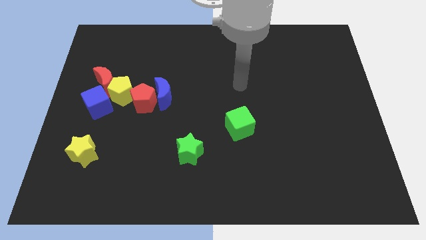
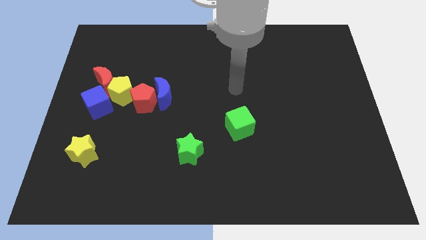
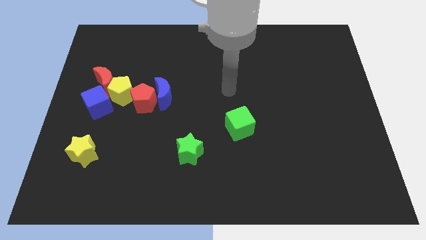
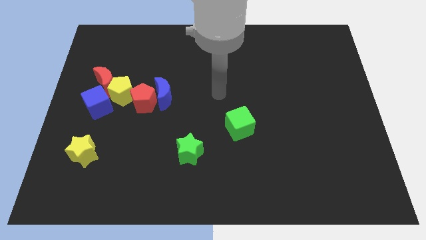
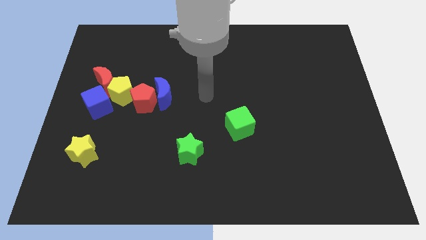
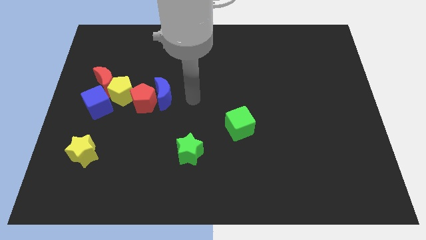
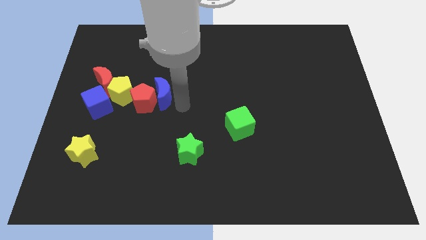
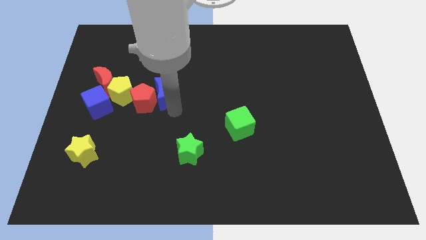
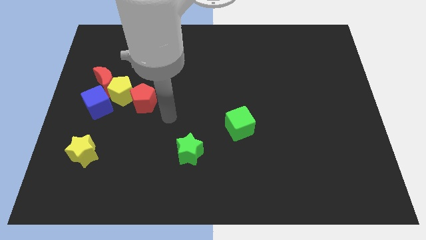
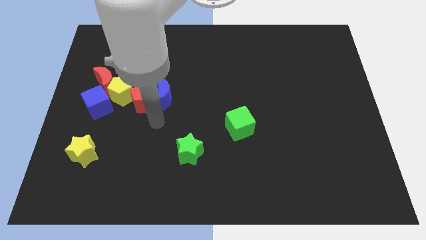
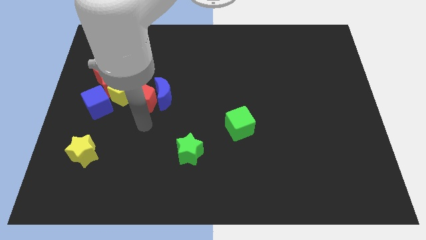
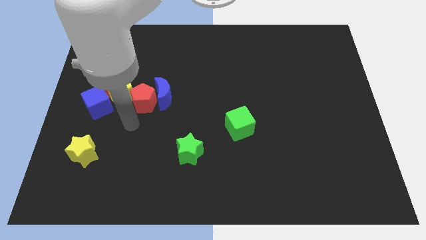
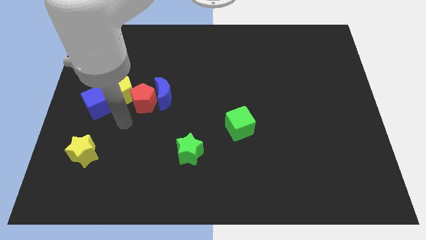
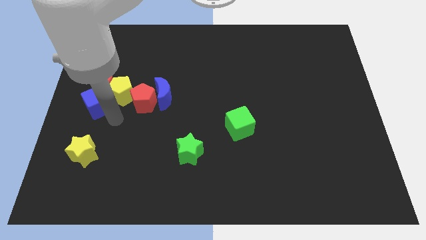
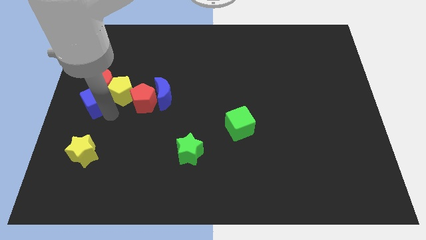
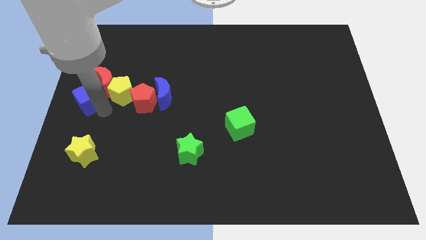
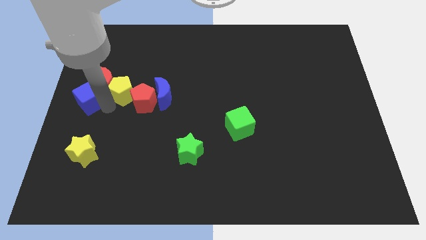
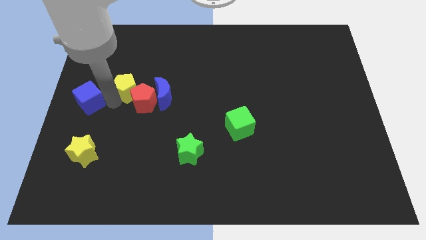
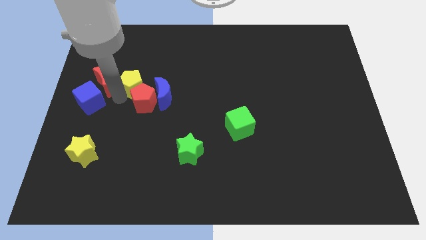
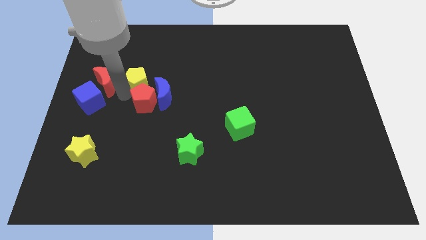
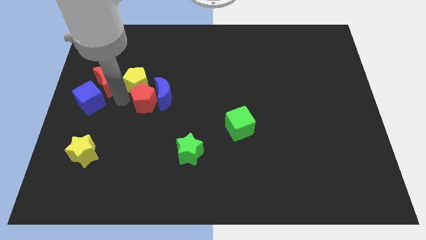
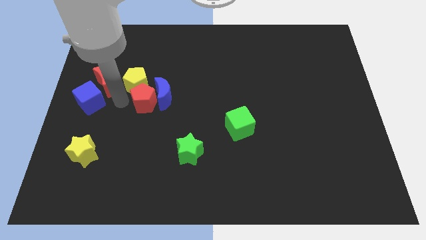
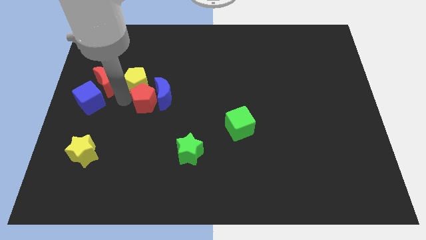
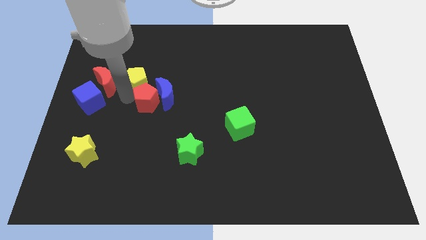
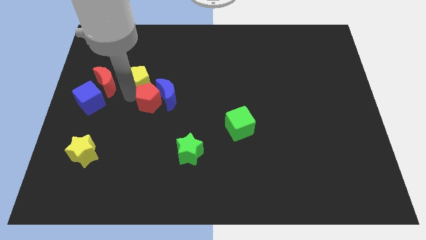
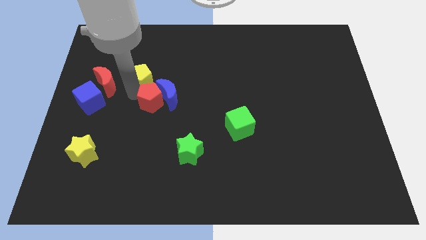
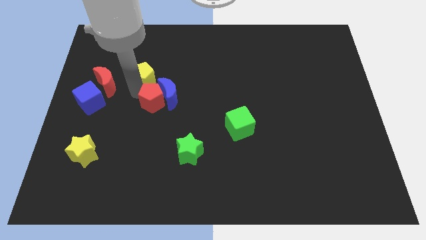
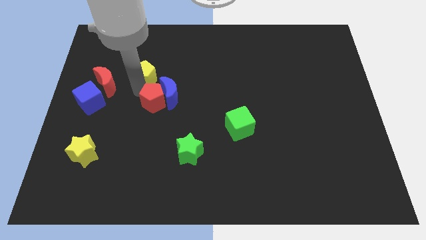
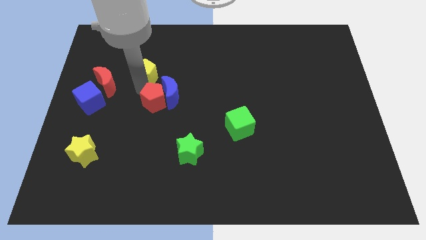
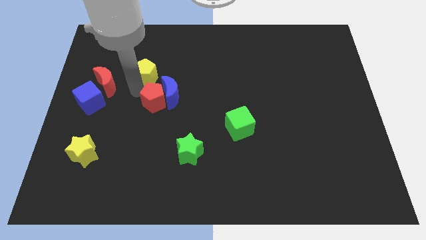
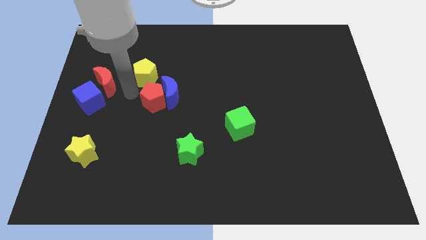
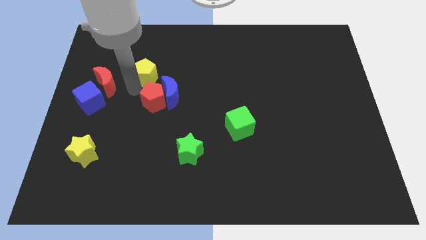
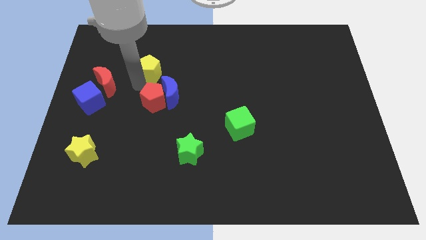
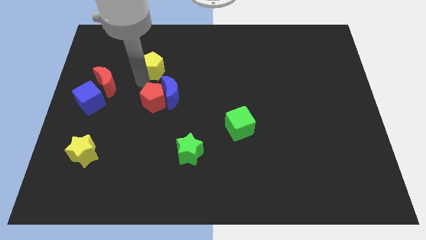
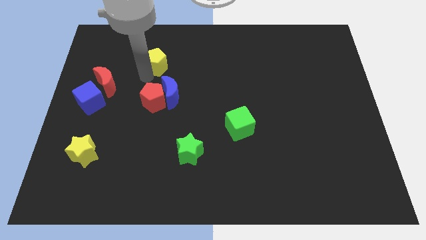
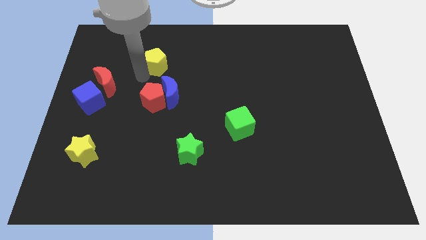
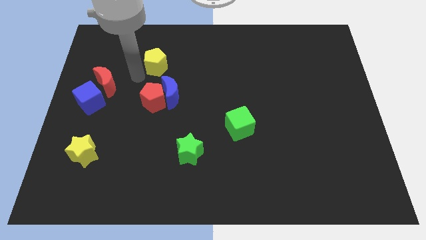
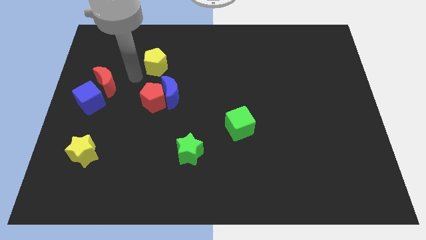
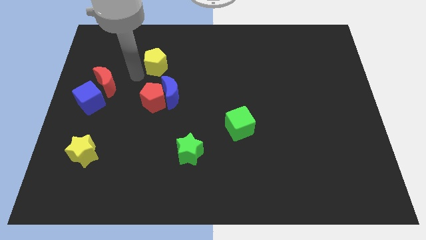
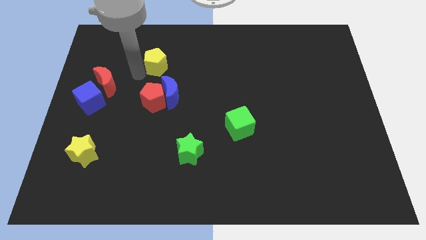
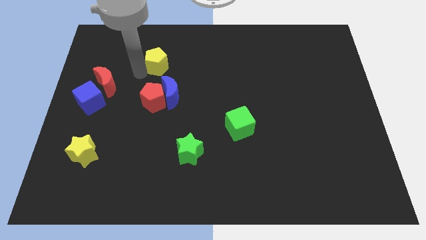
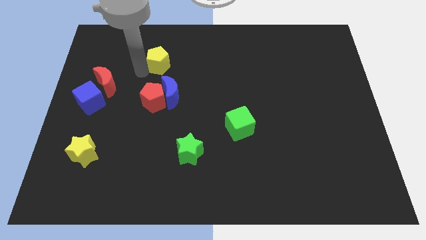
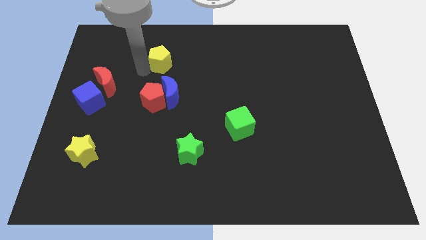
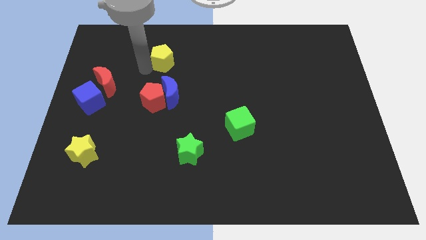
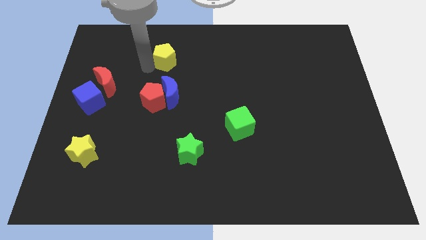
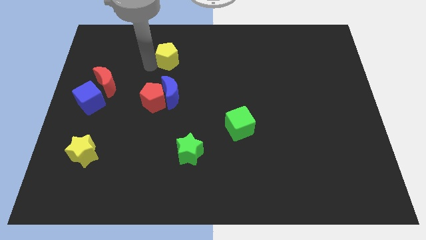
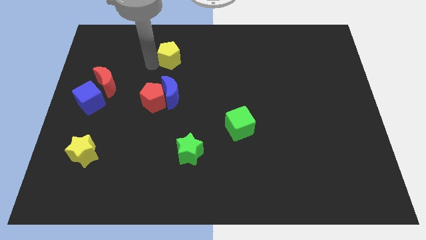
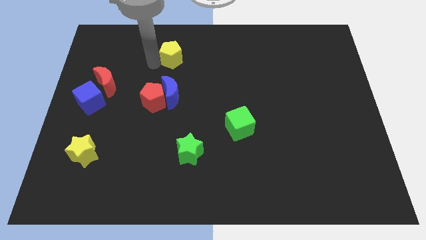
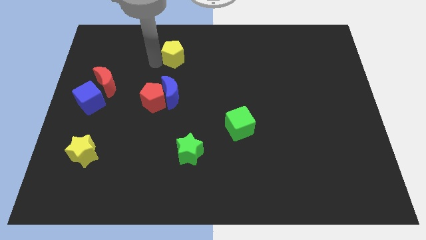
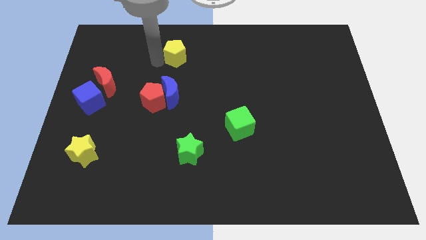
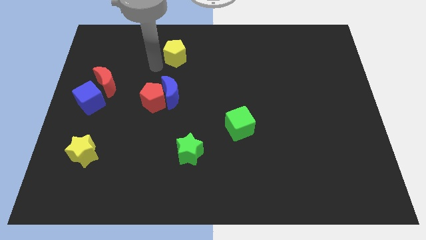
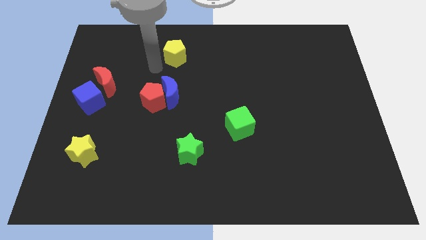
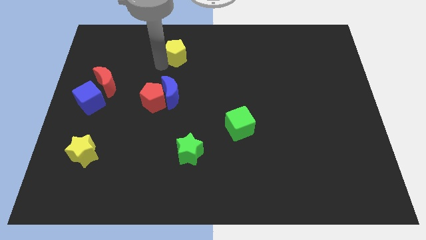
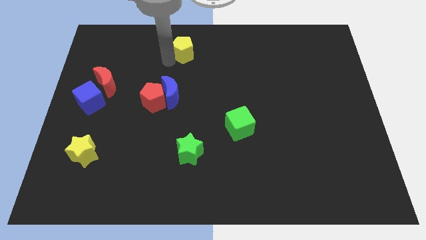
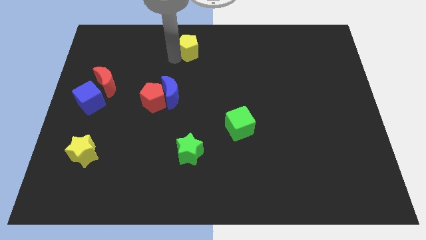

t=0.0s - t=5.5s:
move the yellow pentagon to the top

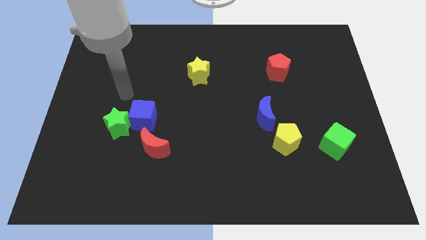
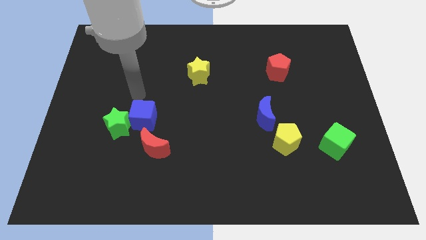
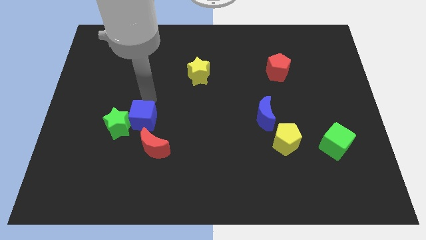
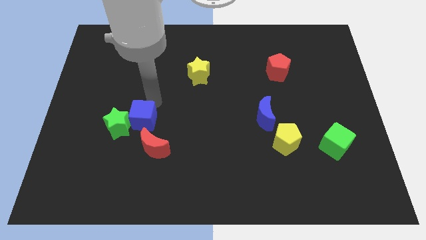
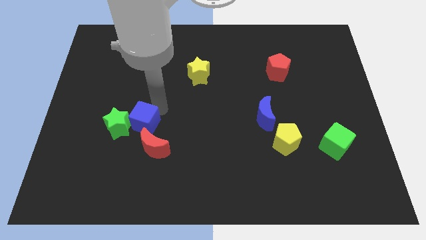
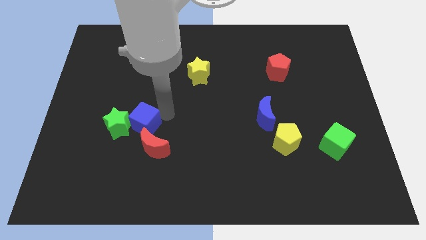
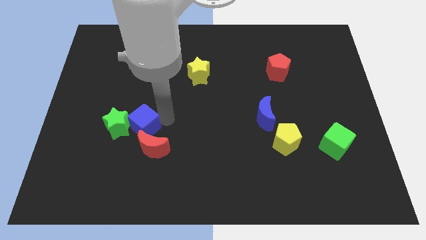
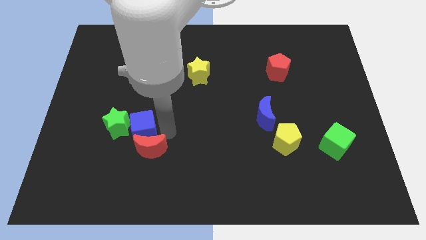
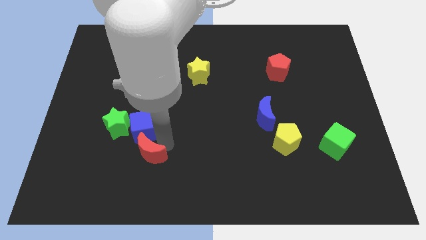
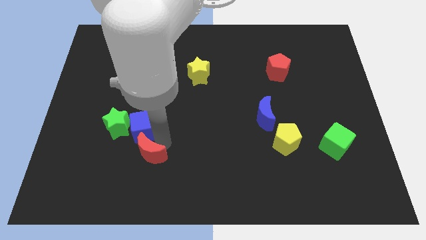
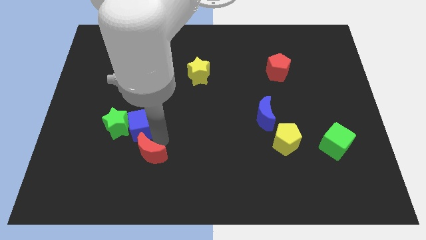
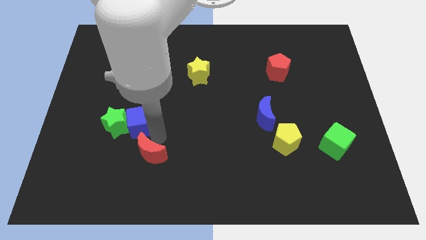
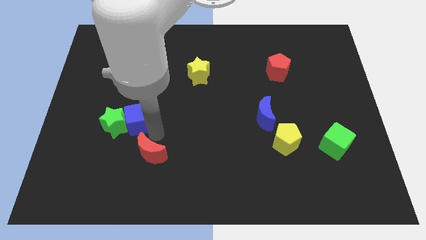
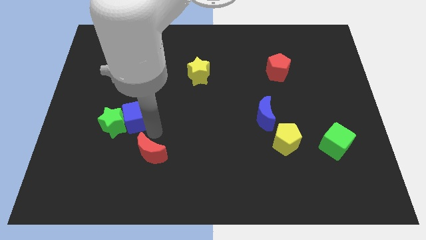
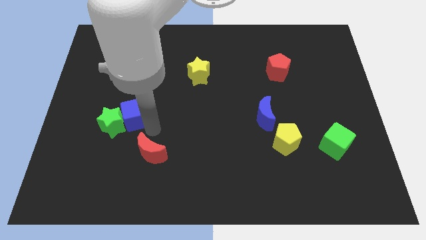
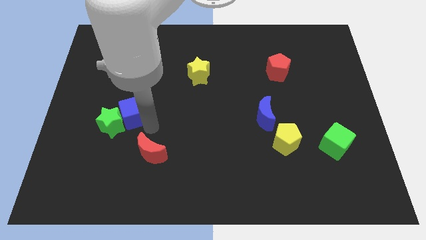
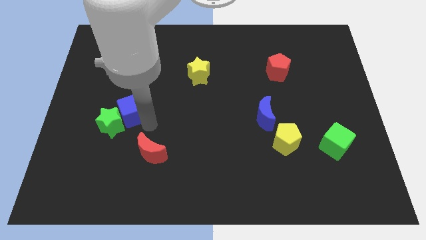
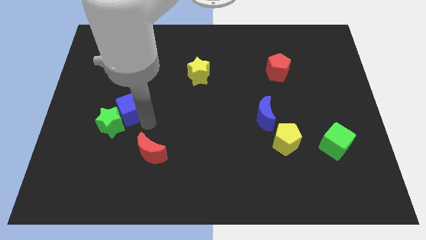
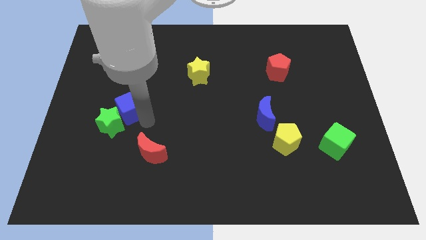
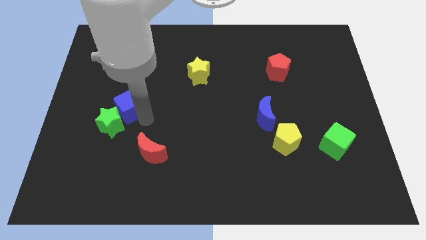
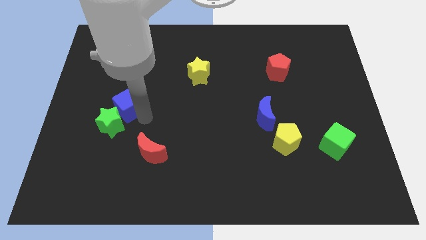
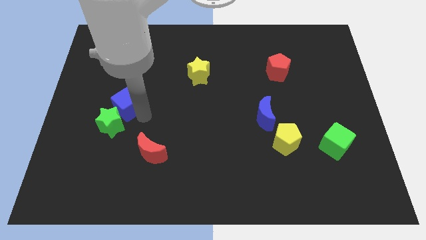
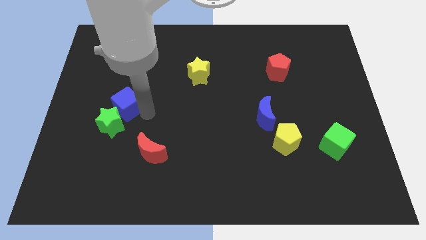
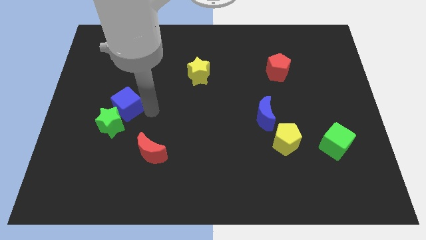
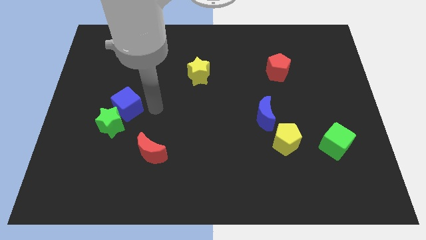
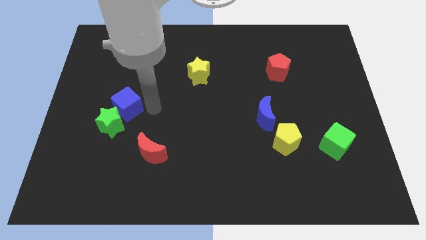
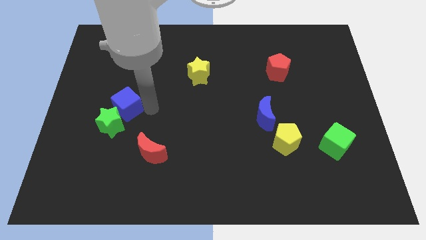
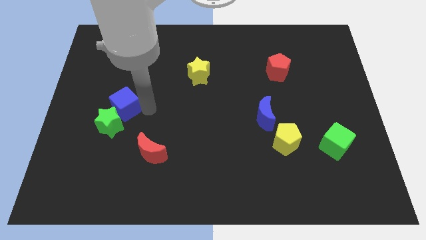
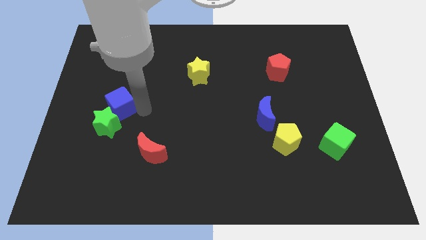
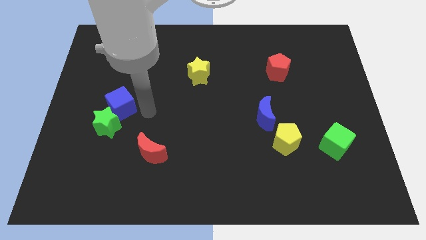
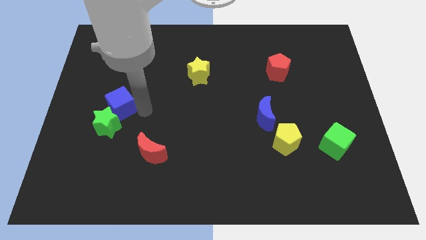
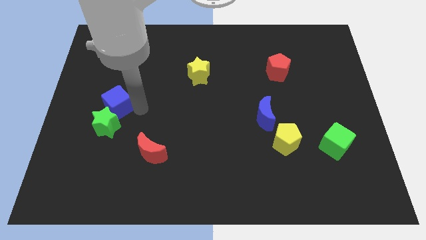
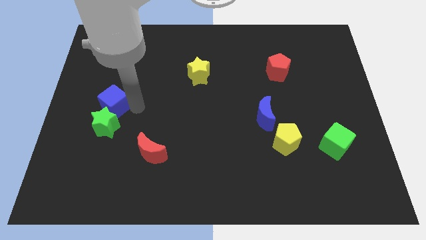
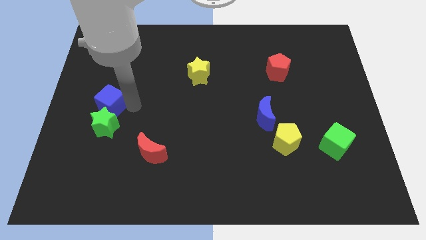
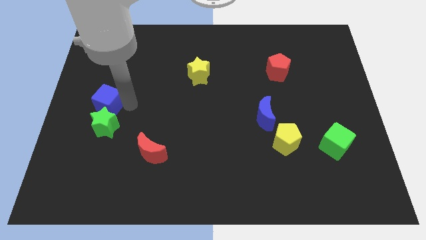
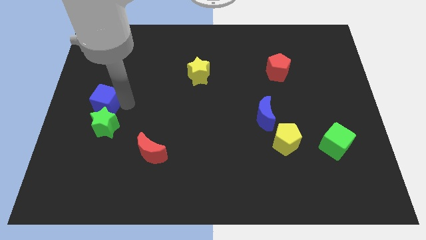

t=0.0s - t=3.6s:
push the blue cube to the left side of the board
